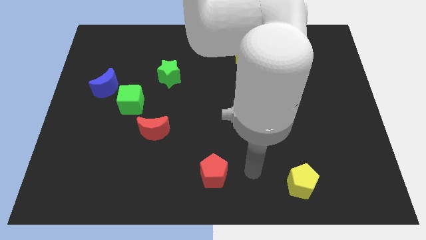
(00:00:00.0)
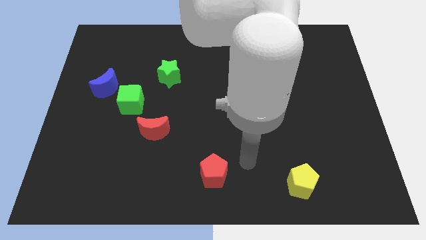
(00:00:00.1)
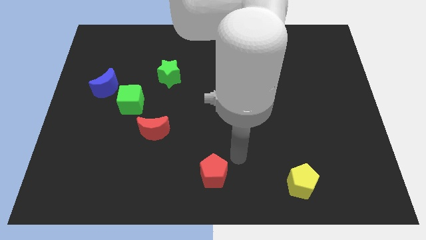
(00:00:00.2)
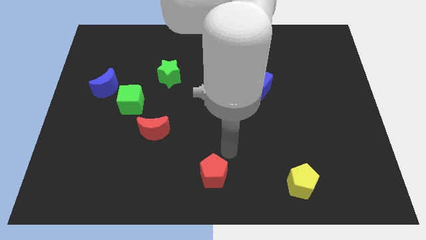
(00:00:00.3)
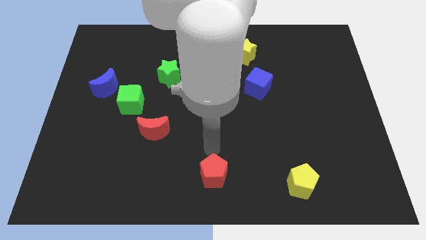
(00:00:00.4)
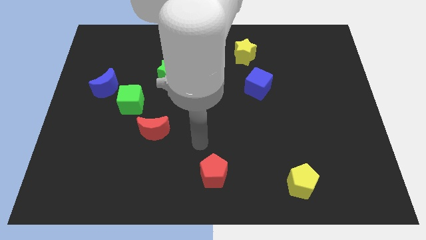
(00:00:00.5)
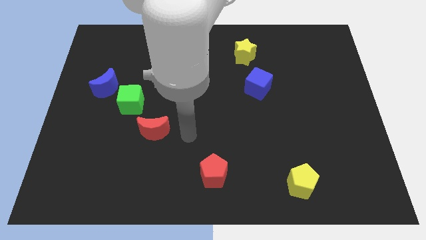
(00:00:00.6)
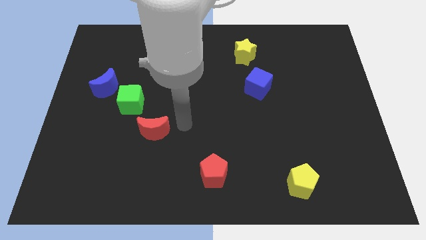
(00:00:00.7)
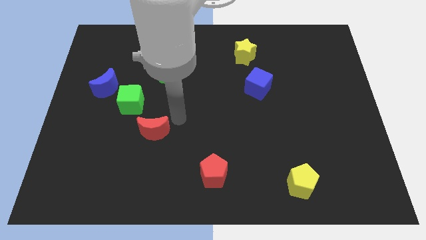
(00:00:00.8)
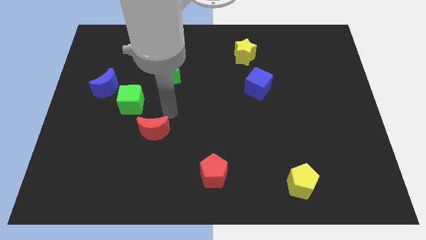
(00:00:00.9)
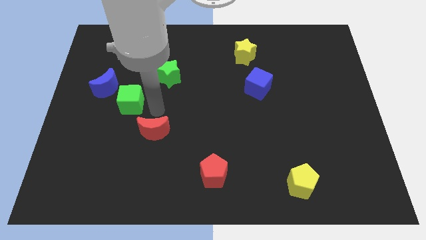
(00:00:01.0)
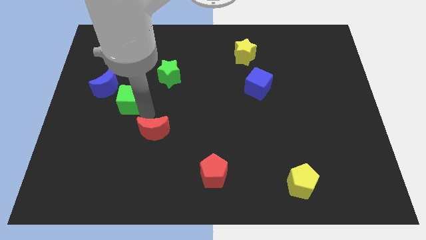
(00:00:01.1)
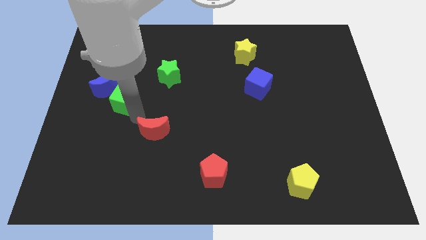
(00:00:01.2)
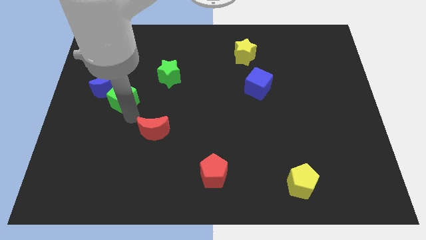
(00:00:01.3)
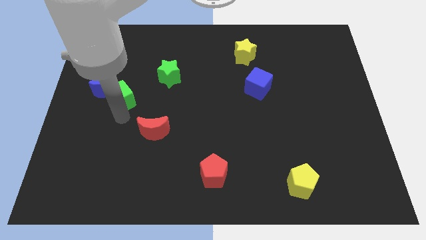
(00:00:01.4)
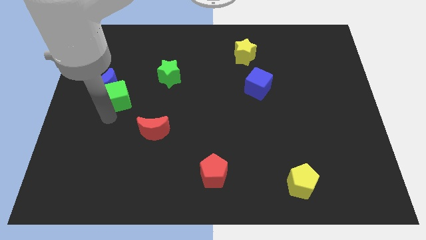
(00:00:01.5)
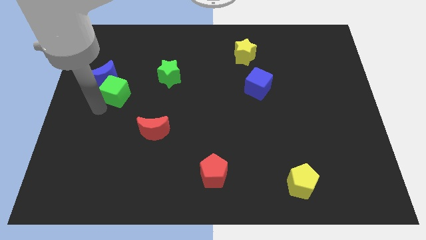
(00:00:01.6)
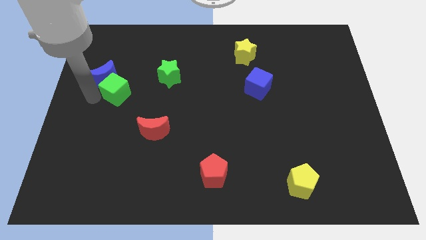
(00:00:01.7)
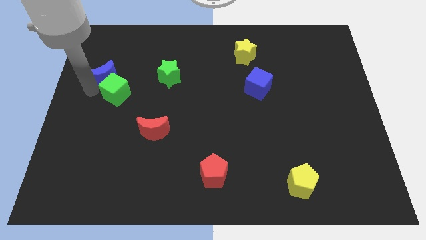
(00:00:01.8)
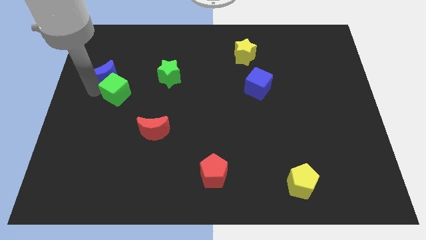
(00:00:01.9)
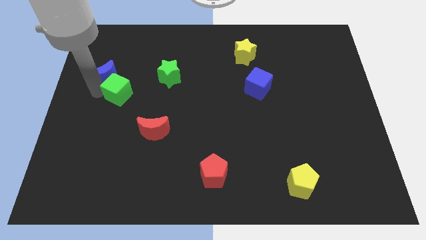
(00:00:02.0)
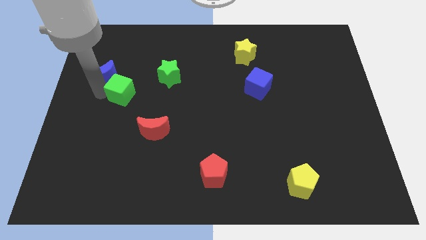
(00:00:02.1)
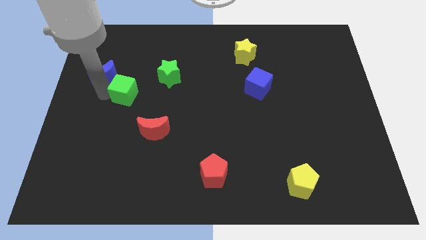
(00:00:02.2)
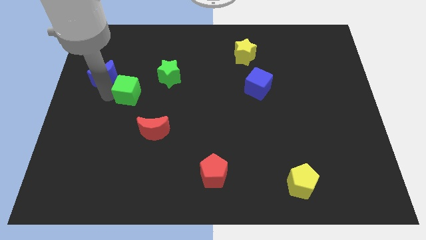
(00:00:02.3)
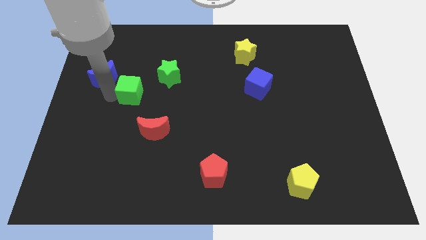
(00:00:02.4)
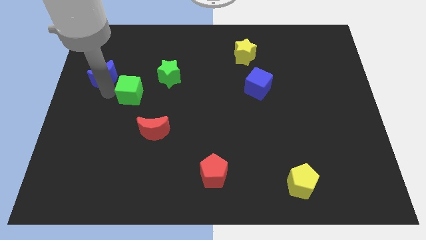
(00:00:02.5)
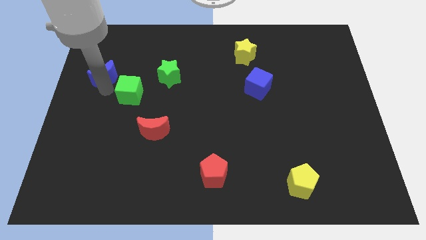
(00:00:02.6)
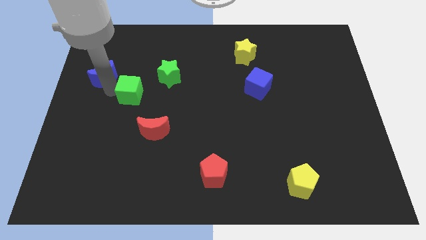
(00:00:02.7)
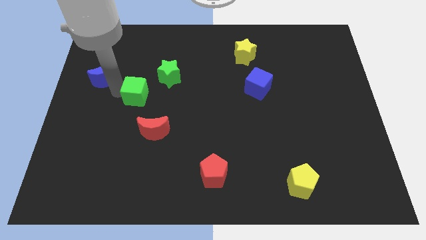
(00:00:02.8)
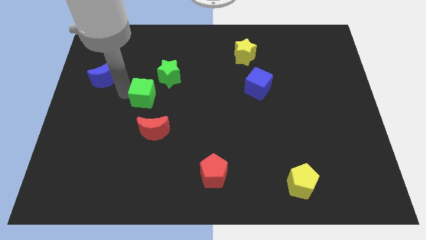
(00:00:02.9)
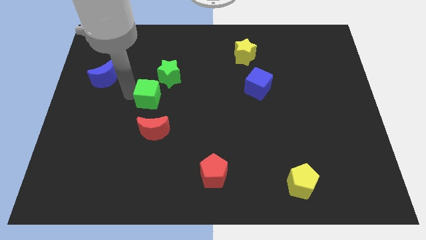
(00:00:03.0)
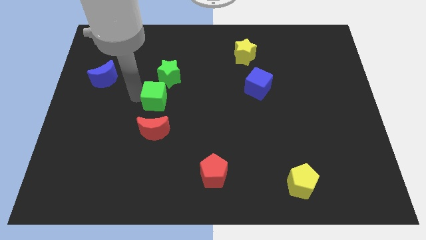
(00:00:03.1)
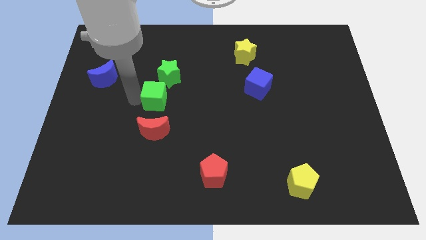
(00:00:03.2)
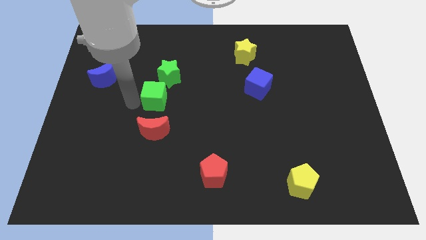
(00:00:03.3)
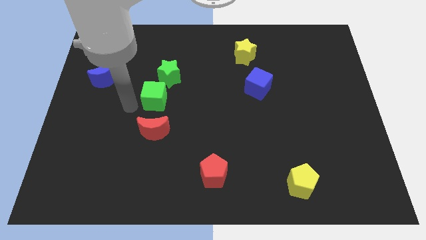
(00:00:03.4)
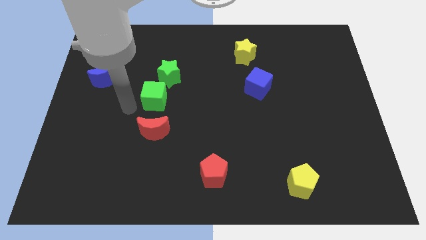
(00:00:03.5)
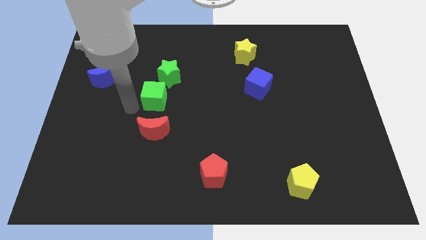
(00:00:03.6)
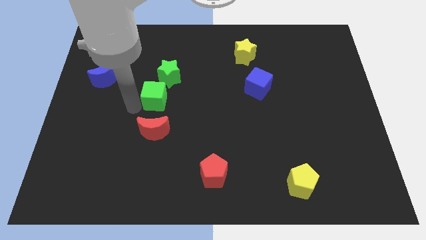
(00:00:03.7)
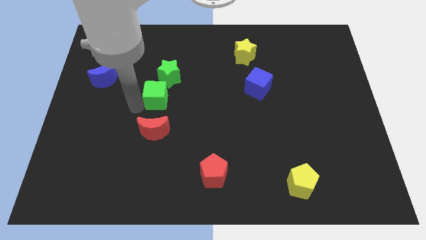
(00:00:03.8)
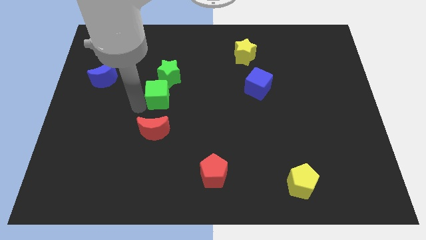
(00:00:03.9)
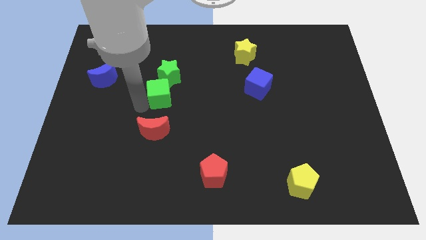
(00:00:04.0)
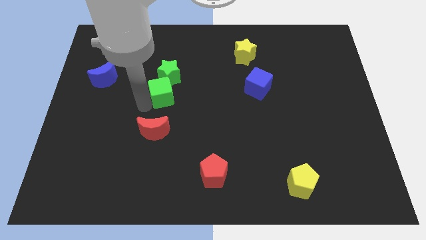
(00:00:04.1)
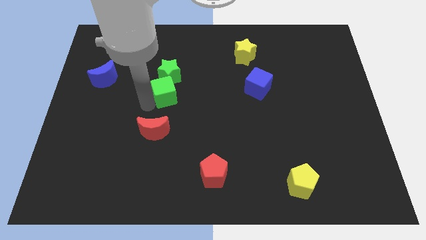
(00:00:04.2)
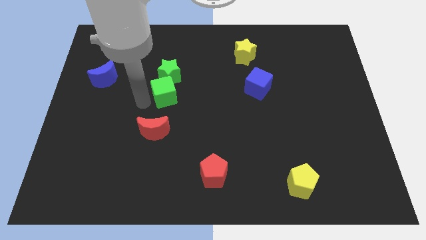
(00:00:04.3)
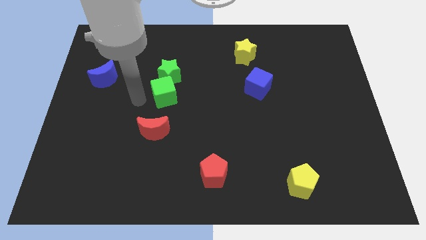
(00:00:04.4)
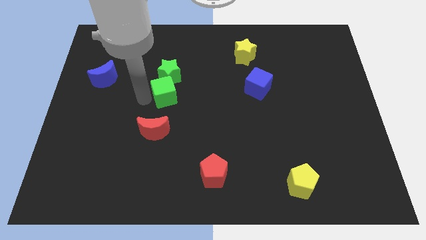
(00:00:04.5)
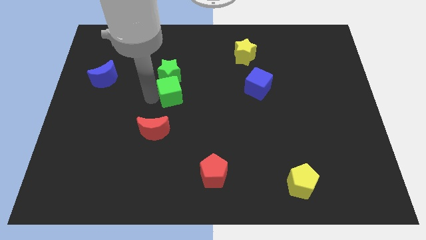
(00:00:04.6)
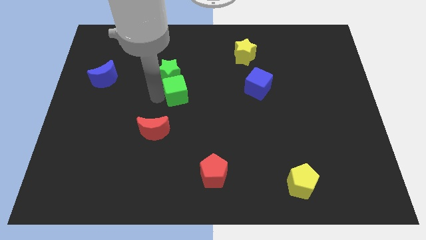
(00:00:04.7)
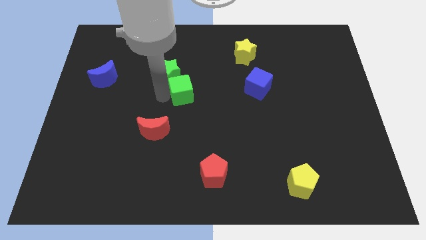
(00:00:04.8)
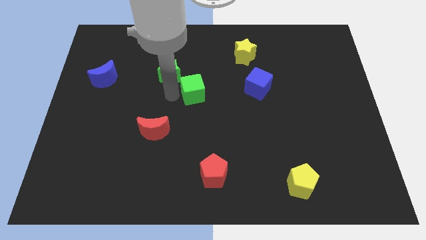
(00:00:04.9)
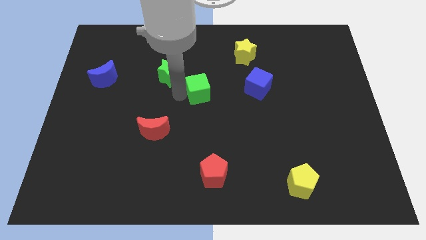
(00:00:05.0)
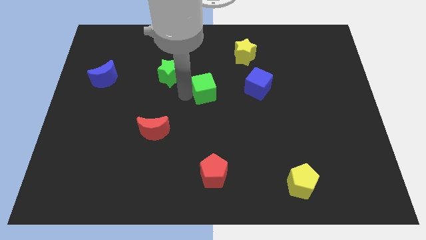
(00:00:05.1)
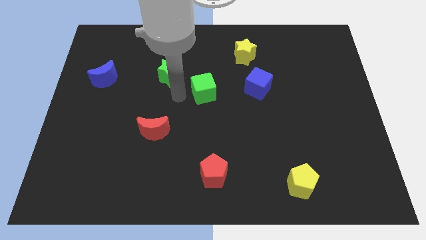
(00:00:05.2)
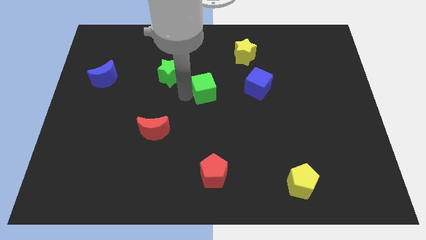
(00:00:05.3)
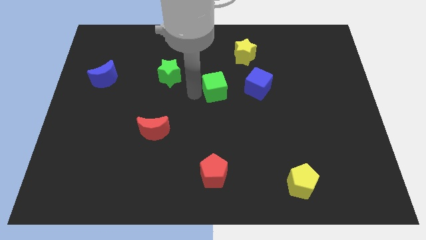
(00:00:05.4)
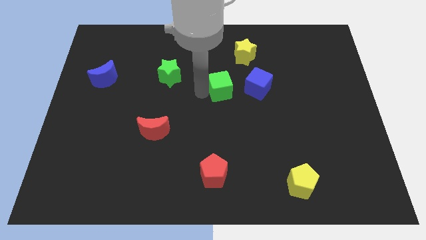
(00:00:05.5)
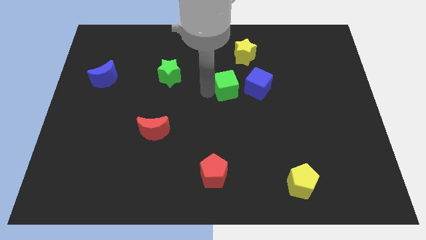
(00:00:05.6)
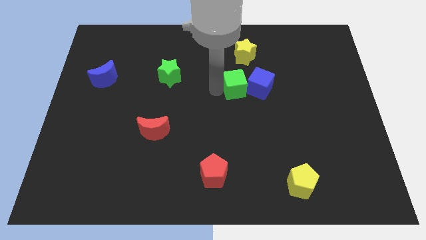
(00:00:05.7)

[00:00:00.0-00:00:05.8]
put the green cube towards the blue cube

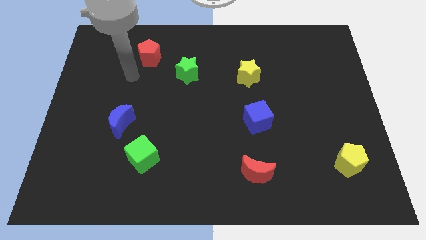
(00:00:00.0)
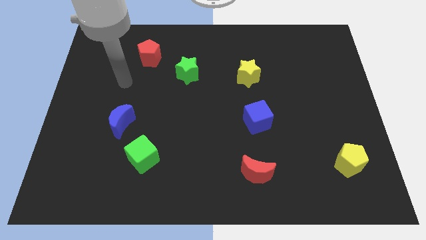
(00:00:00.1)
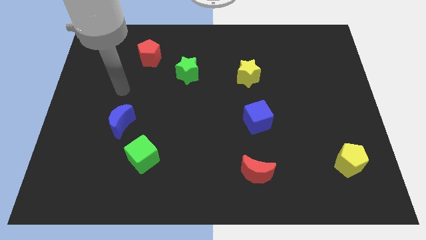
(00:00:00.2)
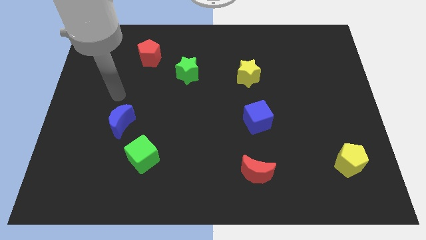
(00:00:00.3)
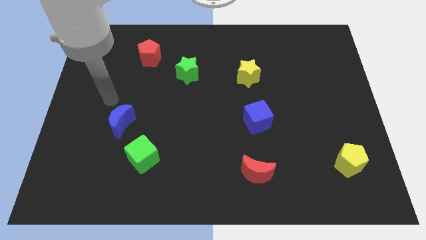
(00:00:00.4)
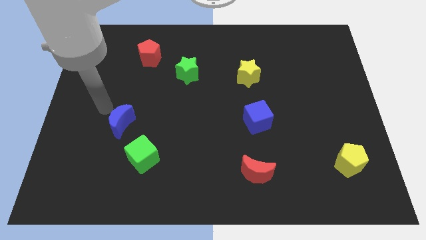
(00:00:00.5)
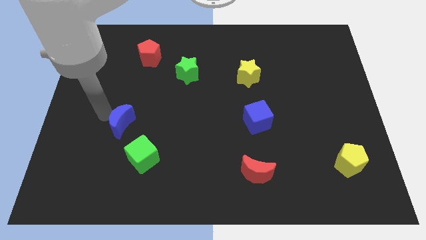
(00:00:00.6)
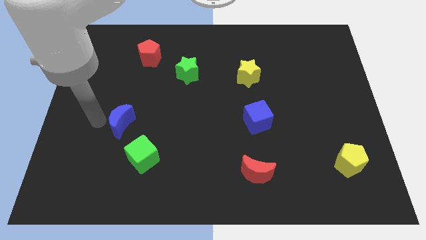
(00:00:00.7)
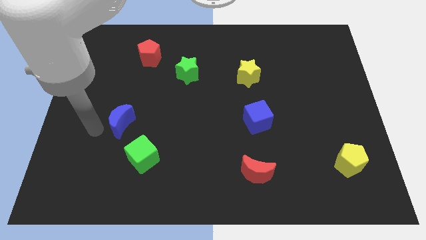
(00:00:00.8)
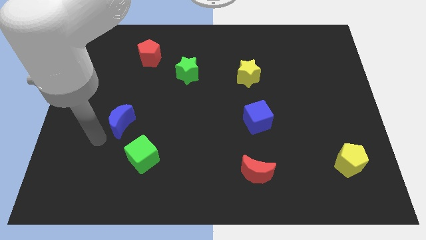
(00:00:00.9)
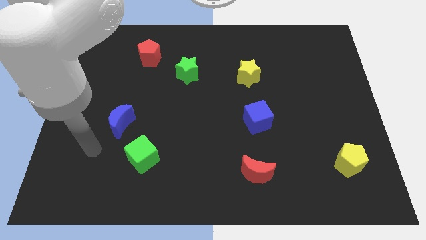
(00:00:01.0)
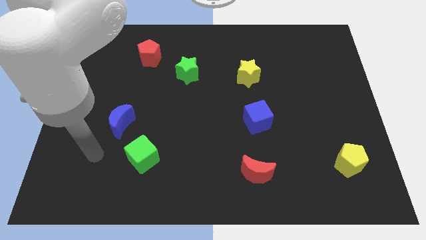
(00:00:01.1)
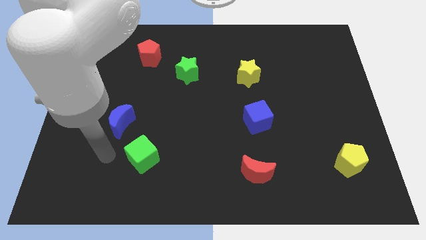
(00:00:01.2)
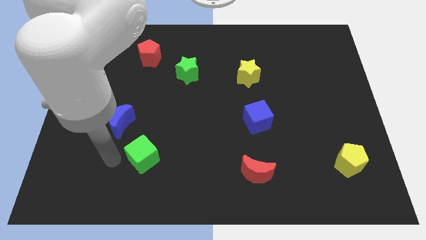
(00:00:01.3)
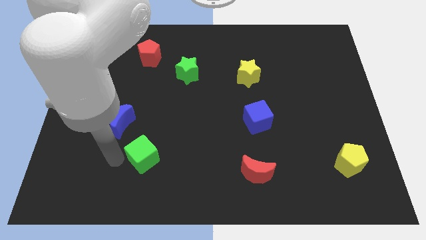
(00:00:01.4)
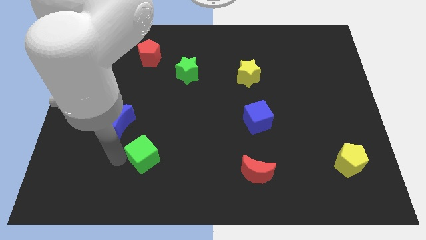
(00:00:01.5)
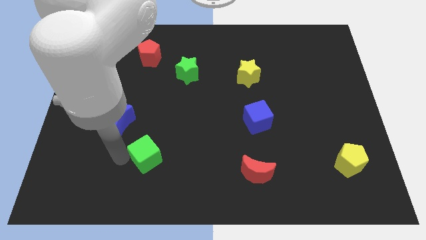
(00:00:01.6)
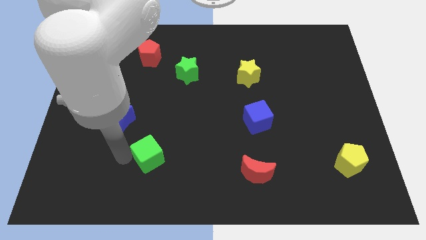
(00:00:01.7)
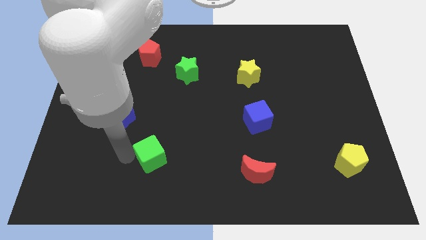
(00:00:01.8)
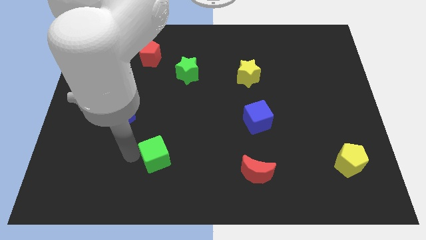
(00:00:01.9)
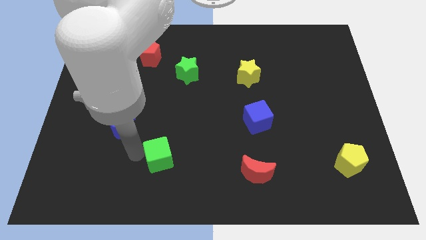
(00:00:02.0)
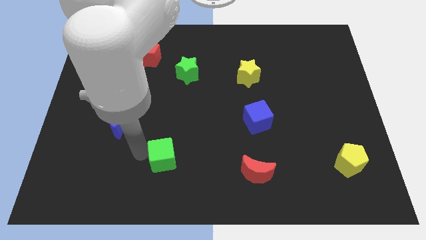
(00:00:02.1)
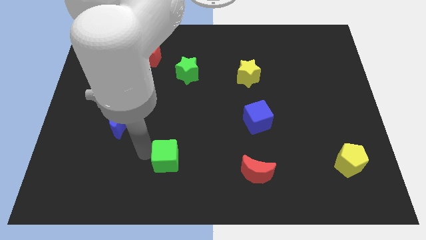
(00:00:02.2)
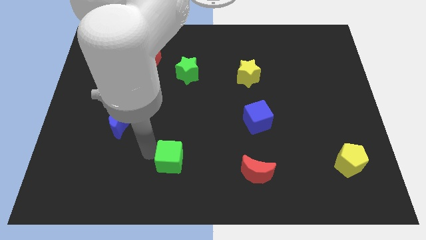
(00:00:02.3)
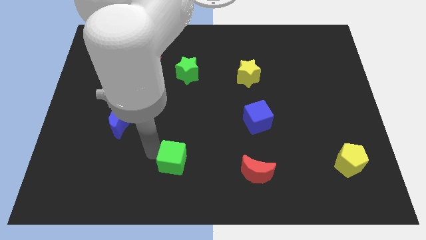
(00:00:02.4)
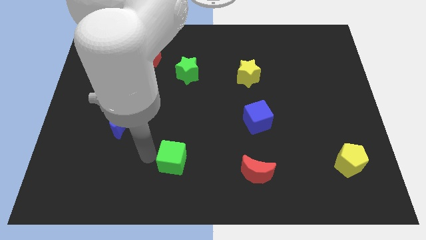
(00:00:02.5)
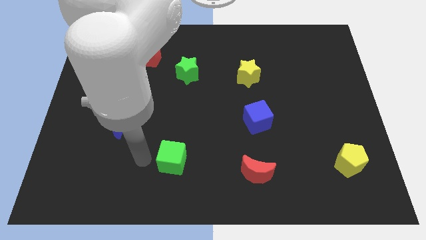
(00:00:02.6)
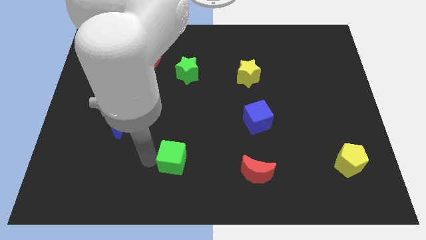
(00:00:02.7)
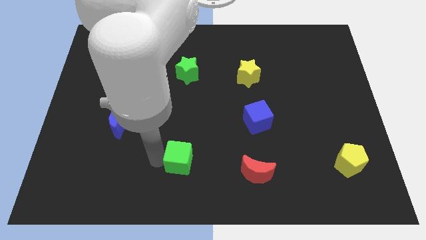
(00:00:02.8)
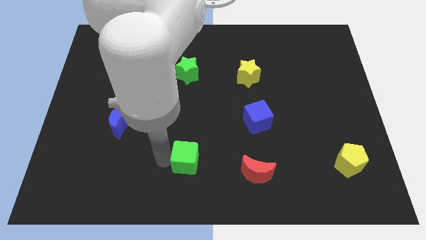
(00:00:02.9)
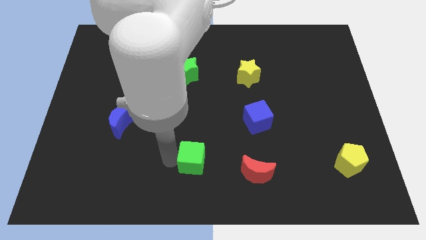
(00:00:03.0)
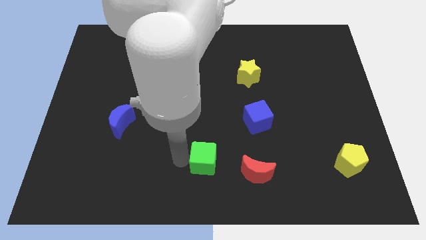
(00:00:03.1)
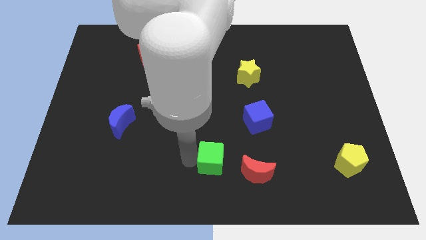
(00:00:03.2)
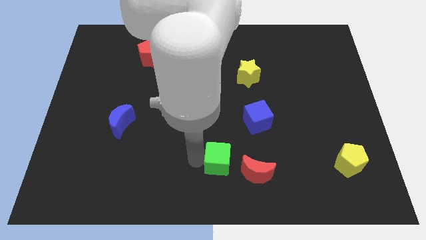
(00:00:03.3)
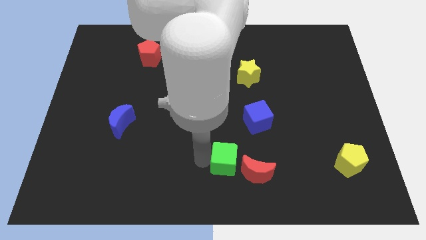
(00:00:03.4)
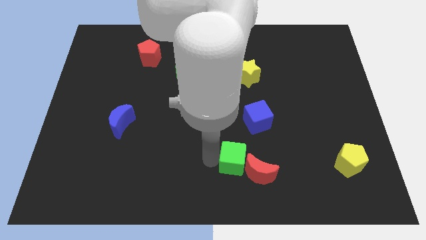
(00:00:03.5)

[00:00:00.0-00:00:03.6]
put the green cube towards the red moon
